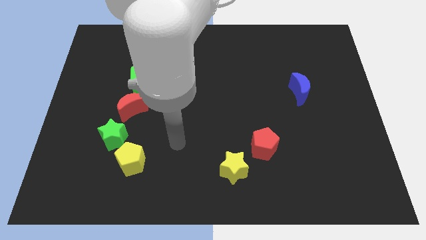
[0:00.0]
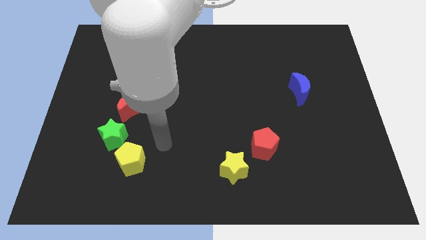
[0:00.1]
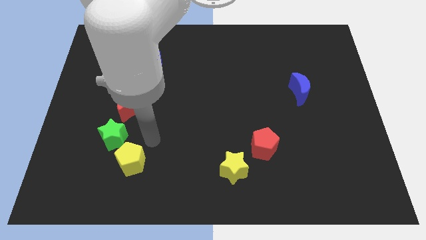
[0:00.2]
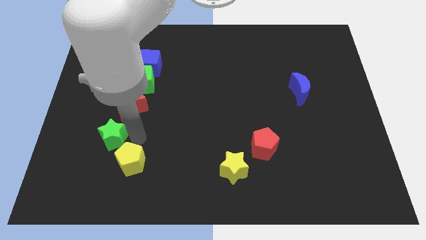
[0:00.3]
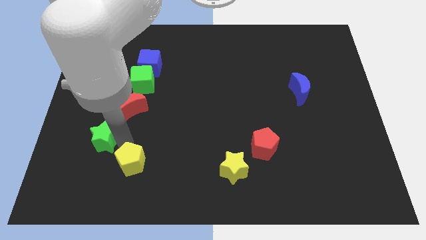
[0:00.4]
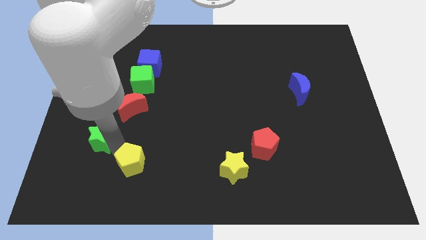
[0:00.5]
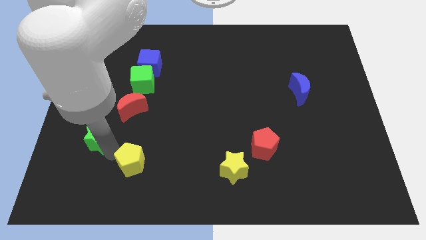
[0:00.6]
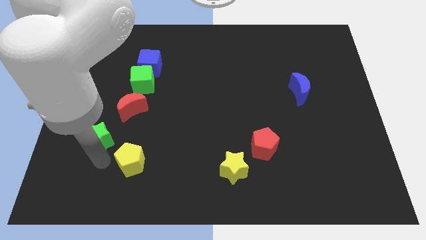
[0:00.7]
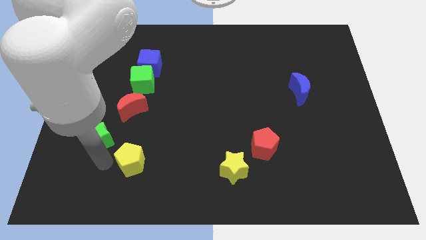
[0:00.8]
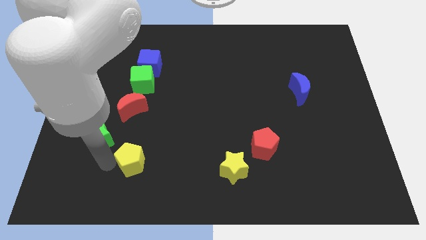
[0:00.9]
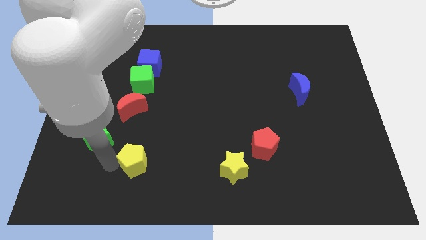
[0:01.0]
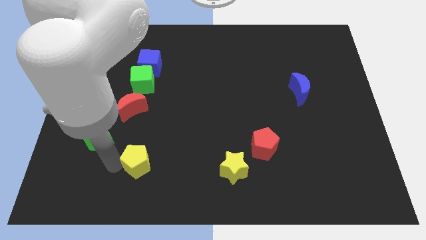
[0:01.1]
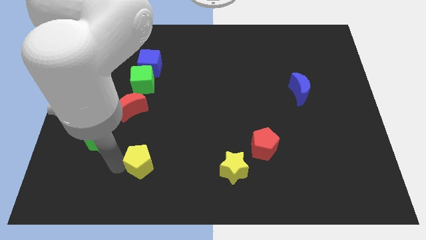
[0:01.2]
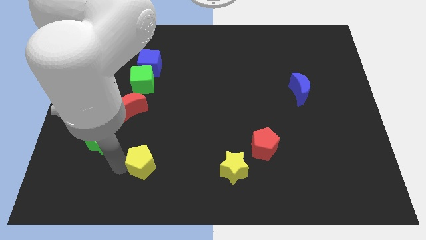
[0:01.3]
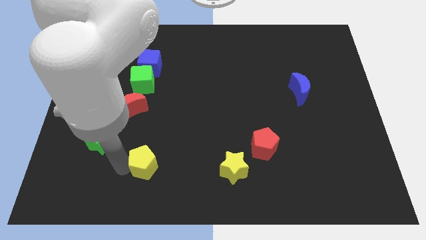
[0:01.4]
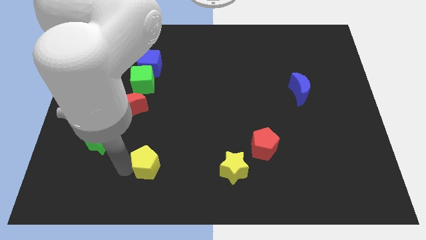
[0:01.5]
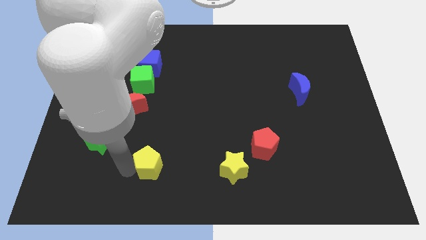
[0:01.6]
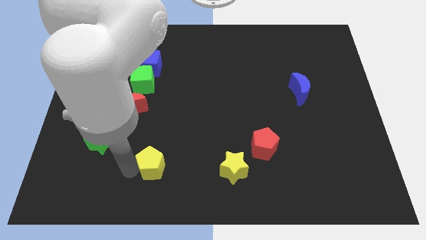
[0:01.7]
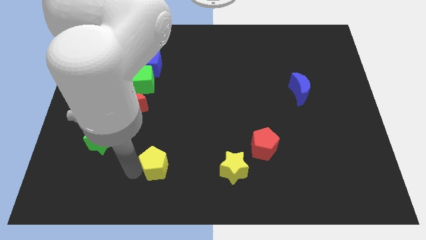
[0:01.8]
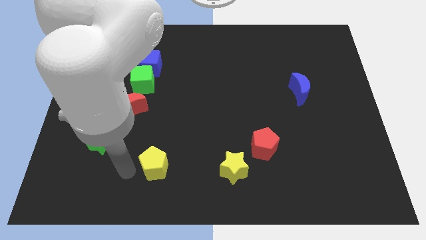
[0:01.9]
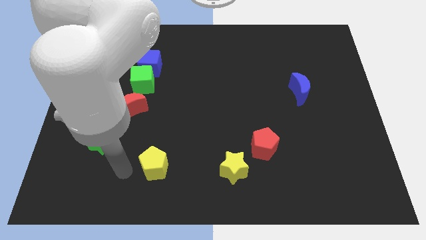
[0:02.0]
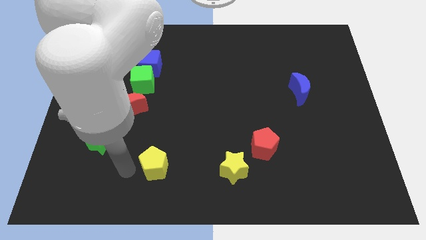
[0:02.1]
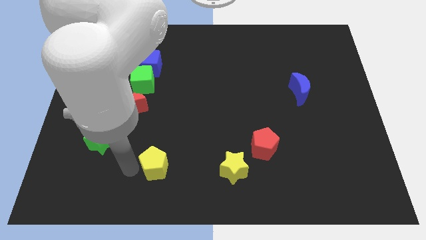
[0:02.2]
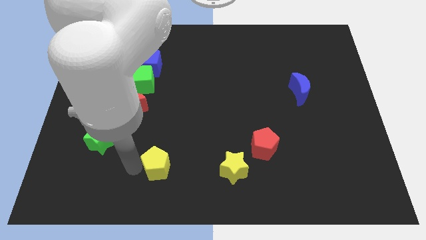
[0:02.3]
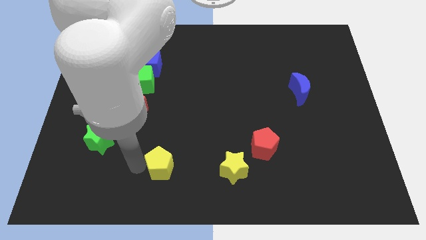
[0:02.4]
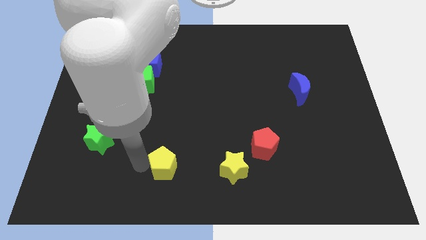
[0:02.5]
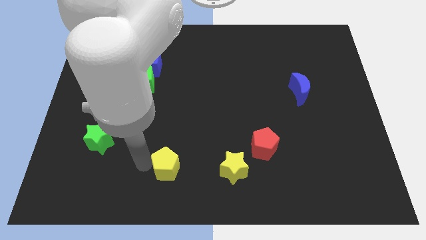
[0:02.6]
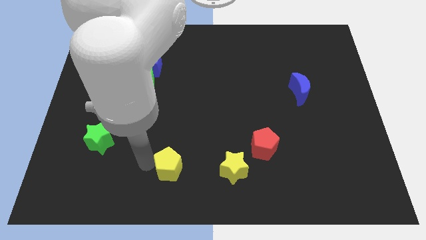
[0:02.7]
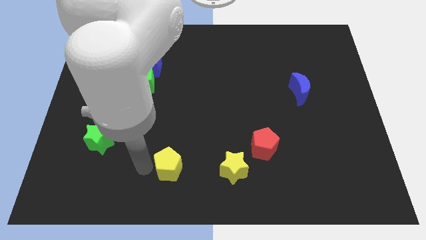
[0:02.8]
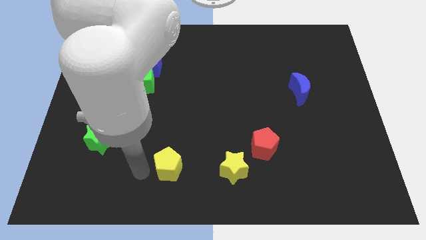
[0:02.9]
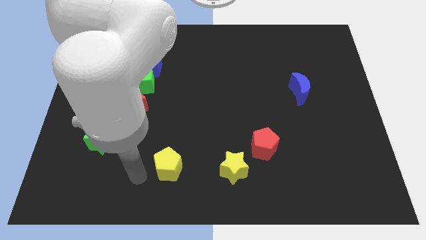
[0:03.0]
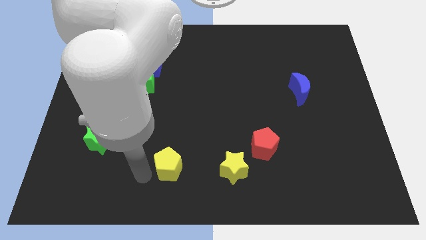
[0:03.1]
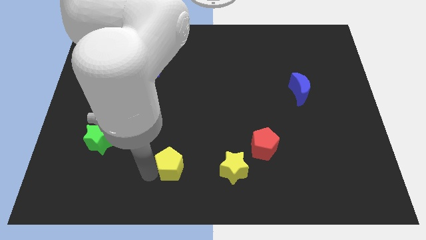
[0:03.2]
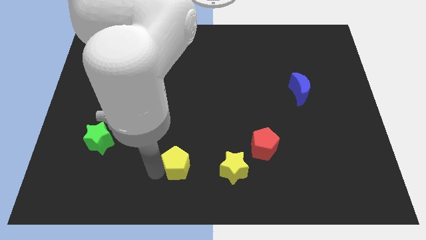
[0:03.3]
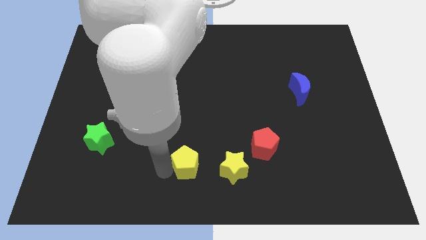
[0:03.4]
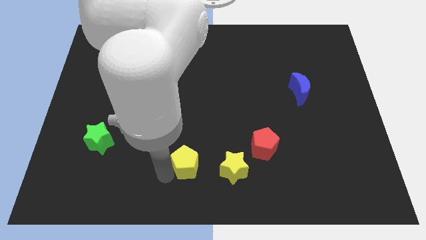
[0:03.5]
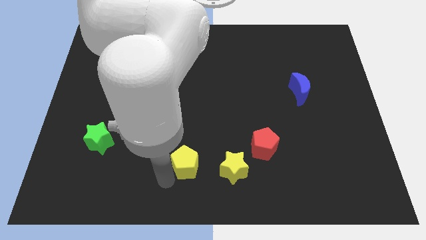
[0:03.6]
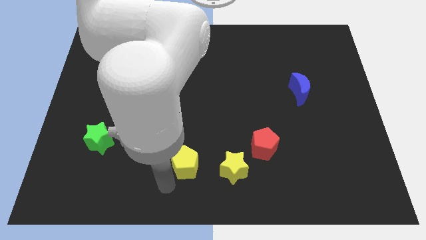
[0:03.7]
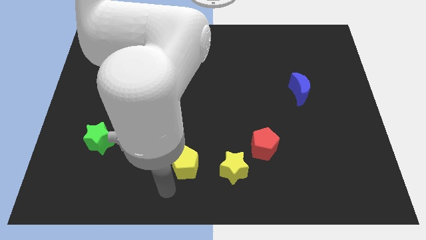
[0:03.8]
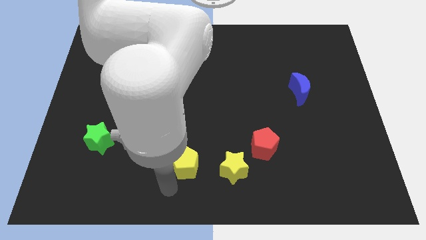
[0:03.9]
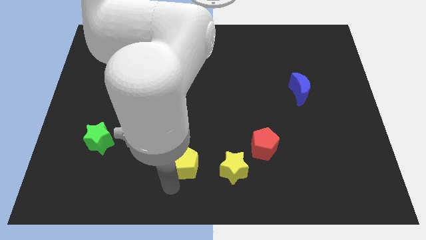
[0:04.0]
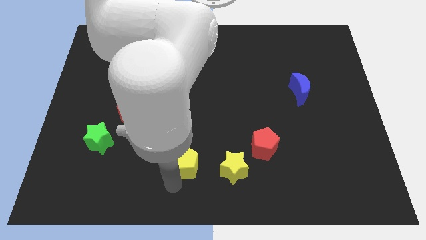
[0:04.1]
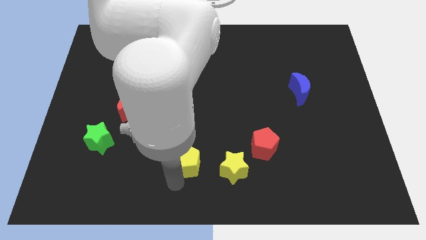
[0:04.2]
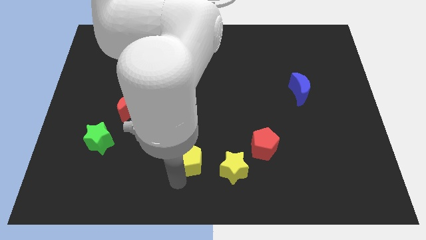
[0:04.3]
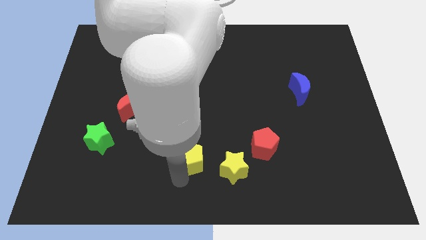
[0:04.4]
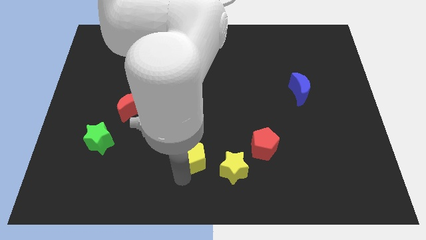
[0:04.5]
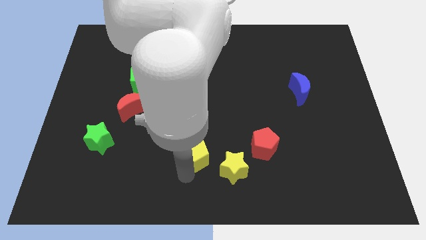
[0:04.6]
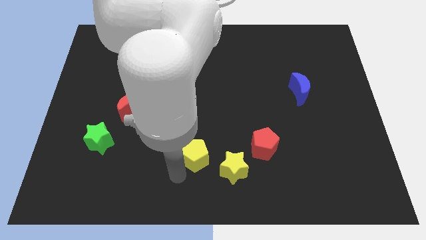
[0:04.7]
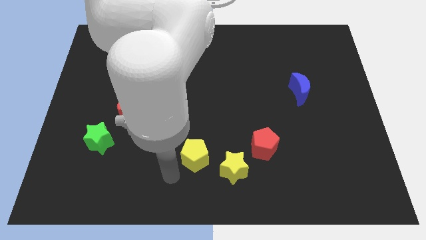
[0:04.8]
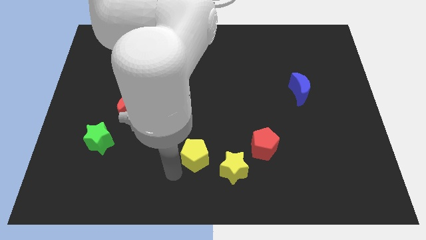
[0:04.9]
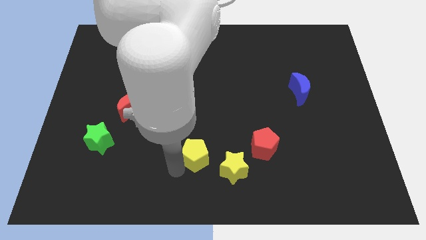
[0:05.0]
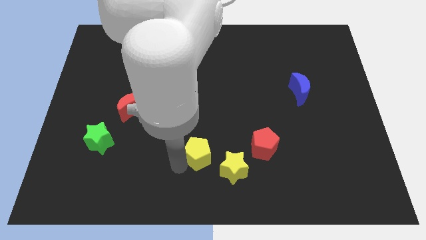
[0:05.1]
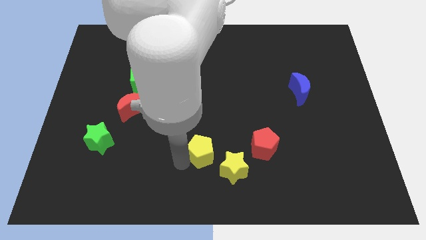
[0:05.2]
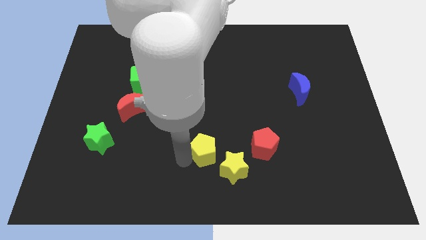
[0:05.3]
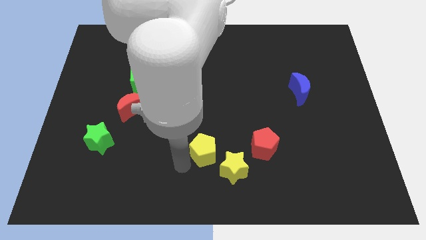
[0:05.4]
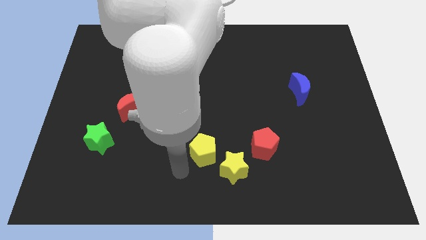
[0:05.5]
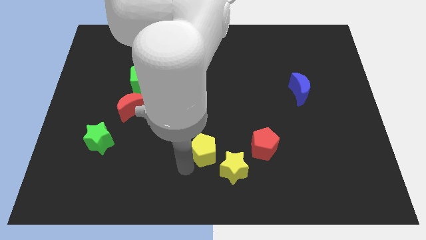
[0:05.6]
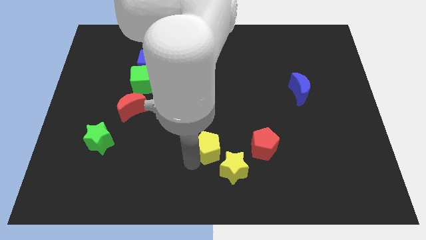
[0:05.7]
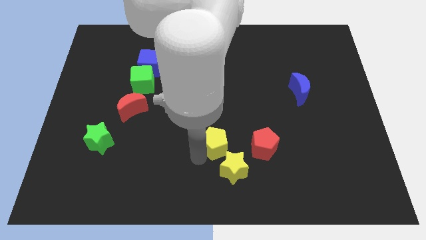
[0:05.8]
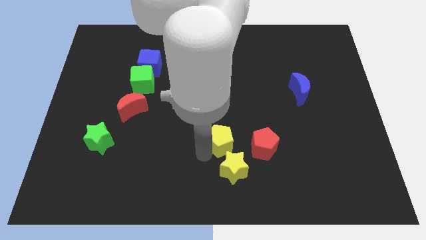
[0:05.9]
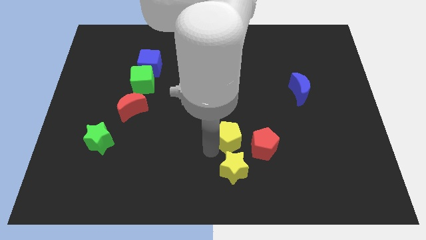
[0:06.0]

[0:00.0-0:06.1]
slide the yellow pentagon to the top left of the red pentagon

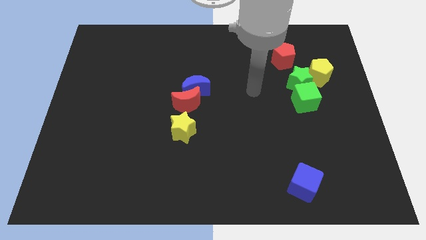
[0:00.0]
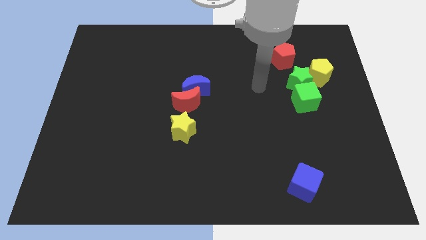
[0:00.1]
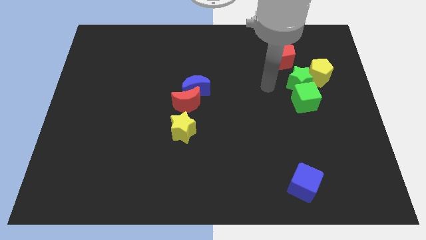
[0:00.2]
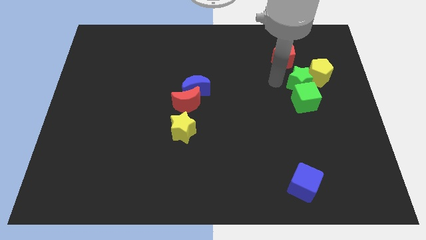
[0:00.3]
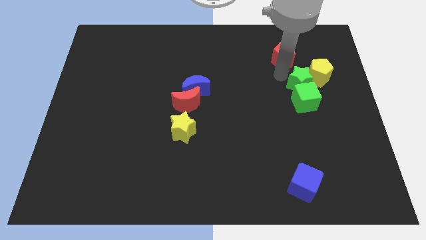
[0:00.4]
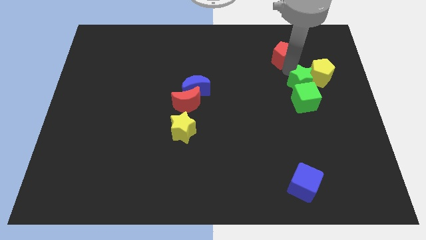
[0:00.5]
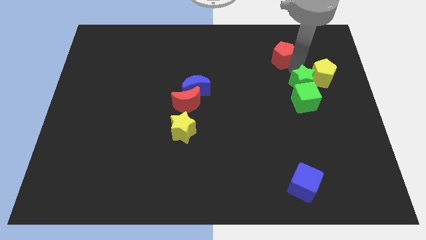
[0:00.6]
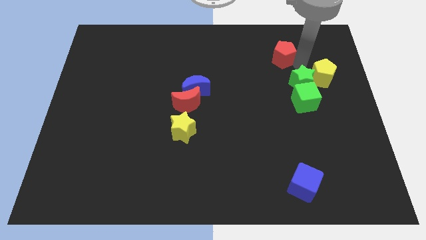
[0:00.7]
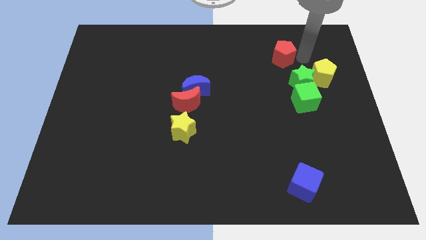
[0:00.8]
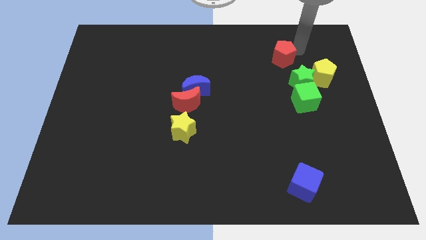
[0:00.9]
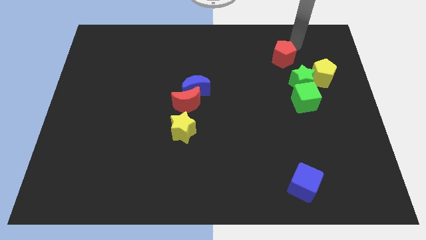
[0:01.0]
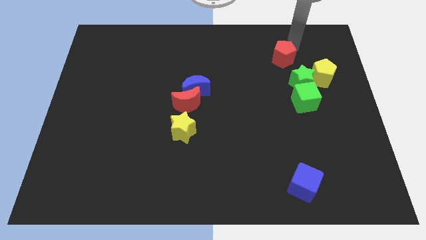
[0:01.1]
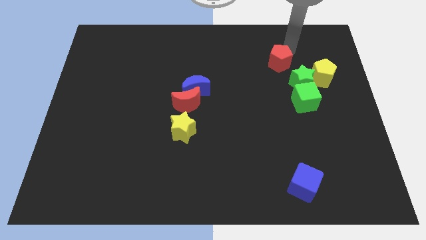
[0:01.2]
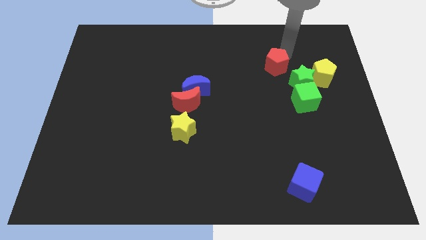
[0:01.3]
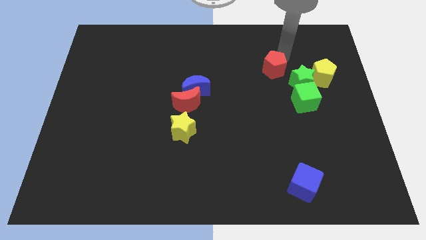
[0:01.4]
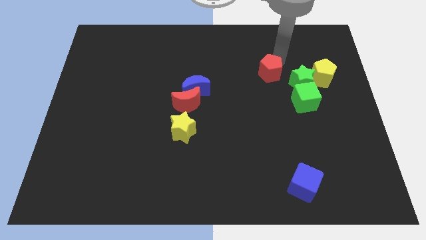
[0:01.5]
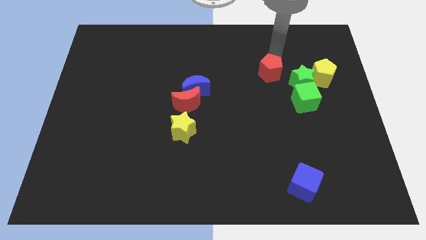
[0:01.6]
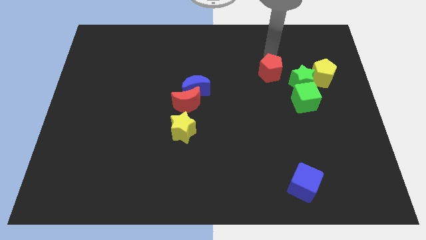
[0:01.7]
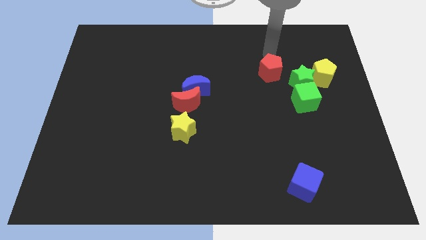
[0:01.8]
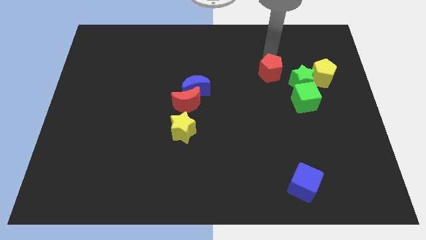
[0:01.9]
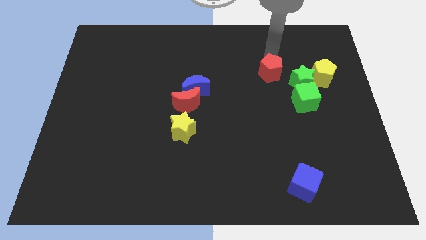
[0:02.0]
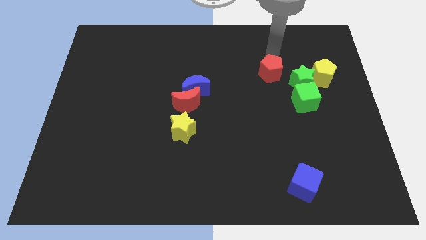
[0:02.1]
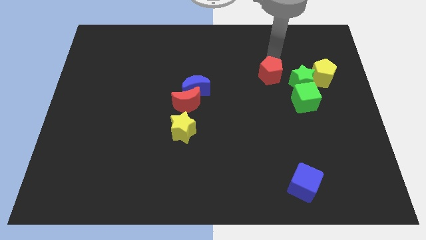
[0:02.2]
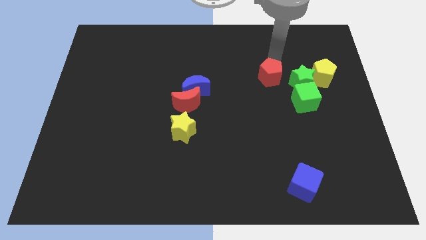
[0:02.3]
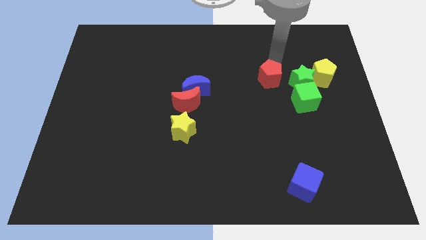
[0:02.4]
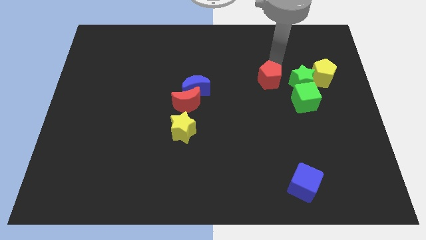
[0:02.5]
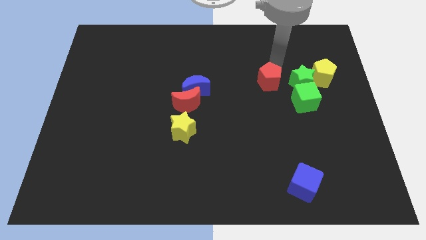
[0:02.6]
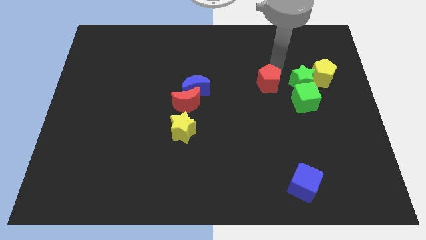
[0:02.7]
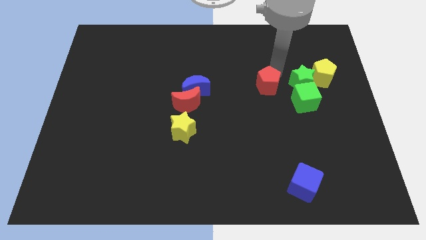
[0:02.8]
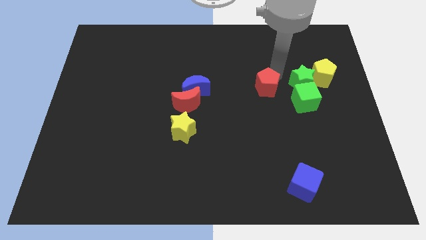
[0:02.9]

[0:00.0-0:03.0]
push the red pentagon to the left side of the green cube
